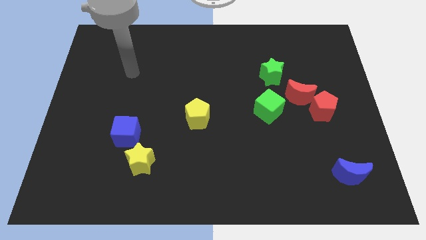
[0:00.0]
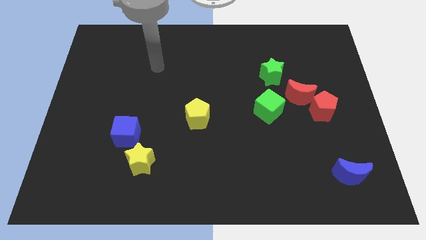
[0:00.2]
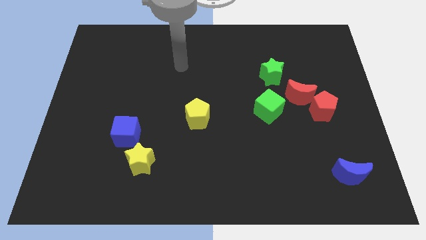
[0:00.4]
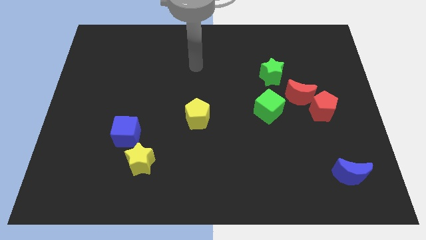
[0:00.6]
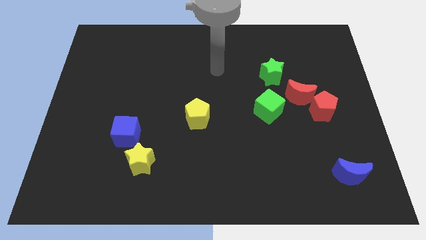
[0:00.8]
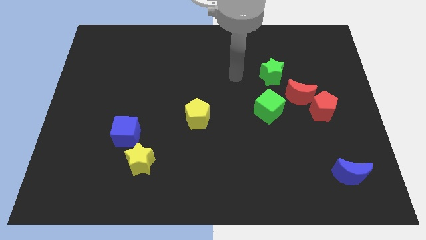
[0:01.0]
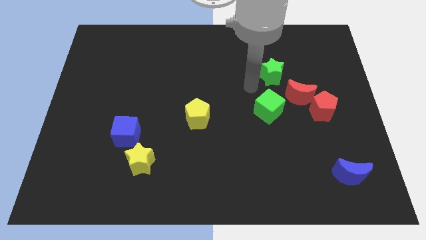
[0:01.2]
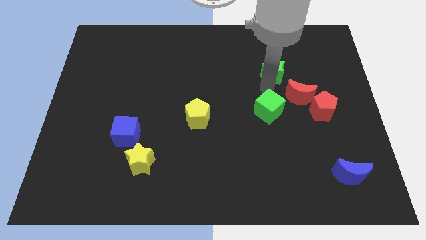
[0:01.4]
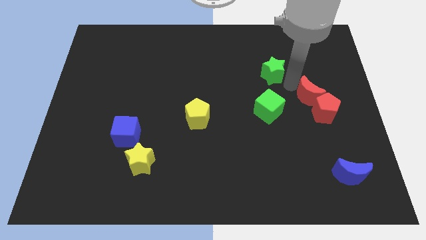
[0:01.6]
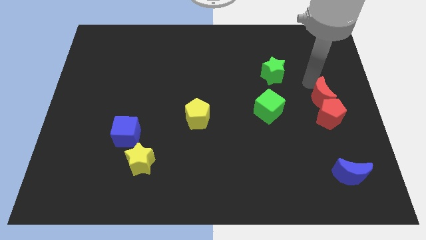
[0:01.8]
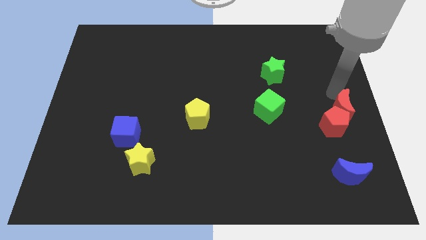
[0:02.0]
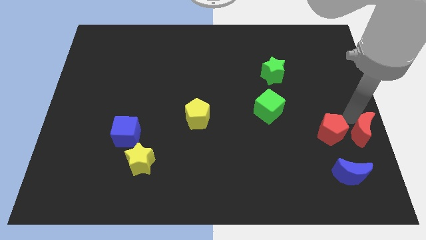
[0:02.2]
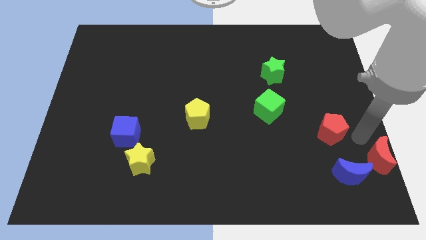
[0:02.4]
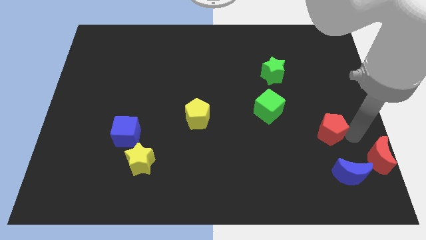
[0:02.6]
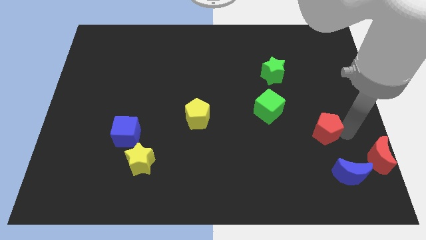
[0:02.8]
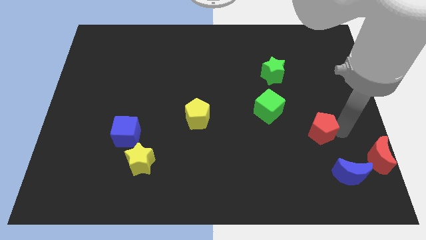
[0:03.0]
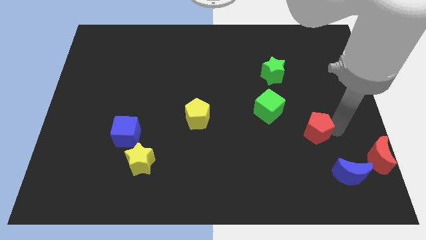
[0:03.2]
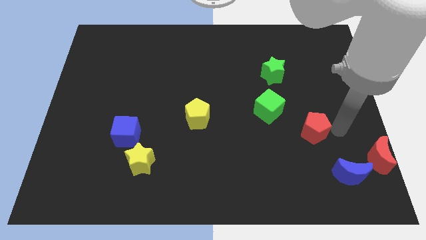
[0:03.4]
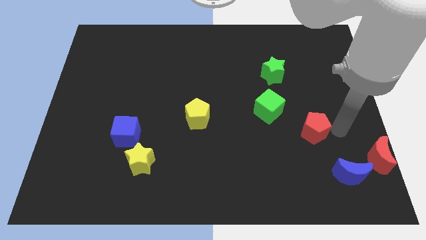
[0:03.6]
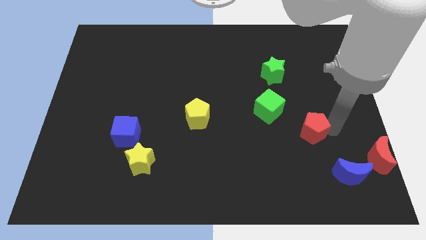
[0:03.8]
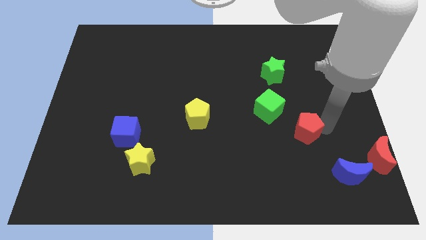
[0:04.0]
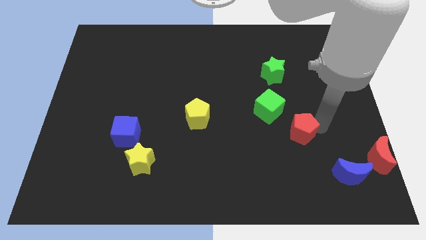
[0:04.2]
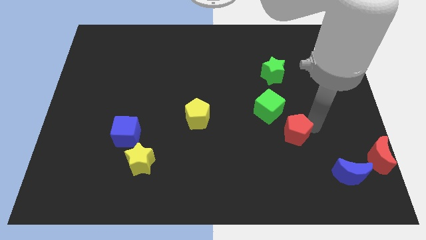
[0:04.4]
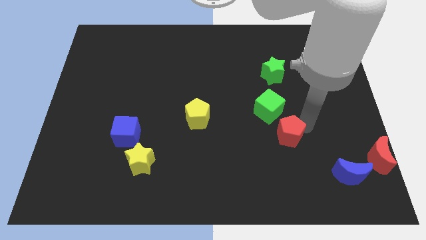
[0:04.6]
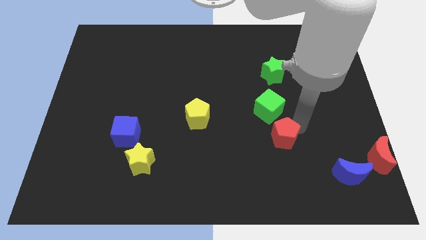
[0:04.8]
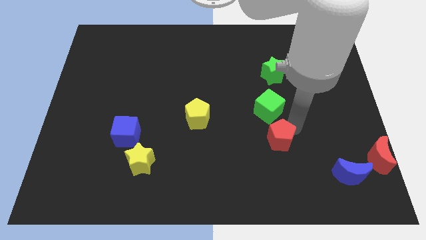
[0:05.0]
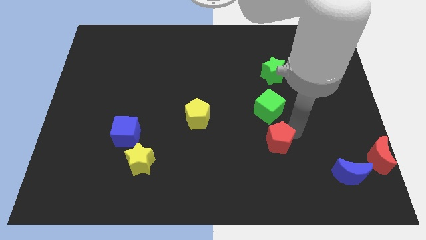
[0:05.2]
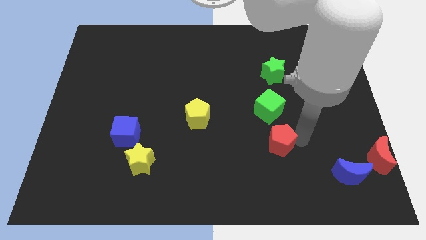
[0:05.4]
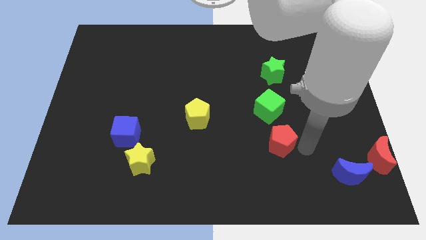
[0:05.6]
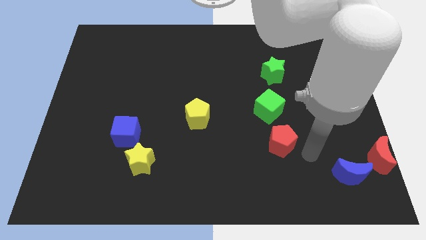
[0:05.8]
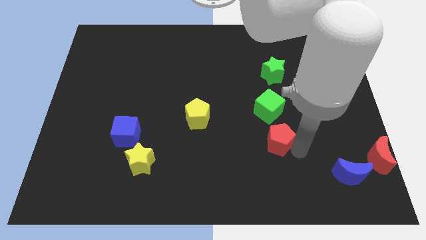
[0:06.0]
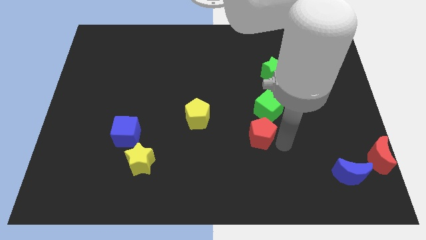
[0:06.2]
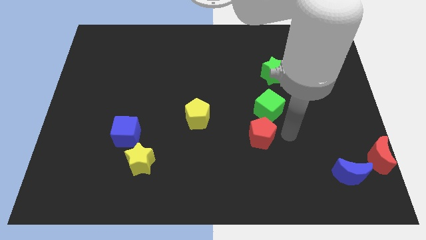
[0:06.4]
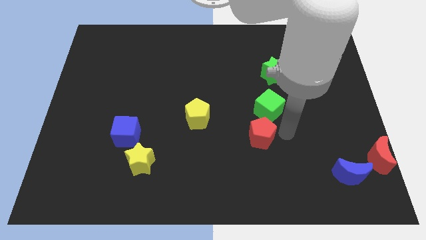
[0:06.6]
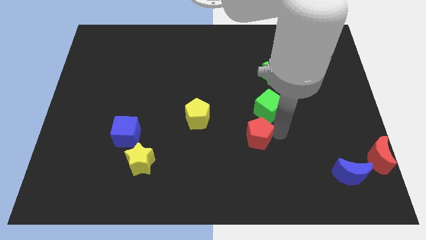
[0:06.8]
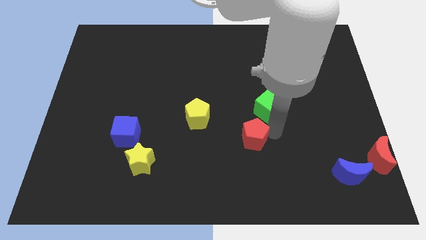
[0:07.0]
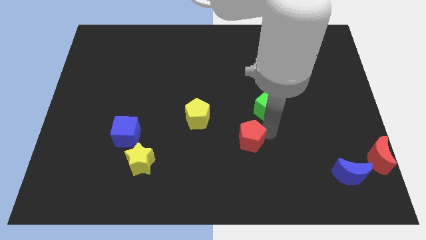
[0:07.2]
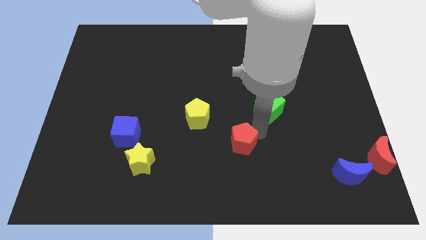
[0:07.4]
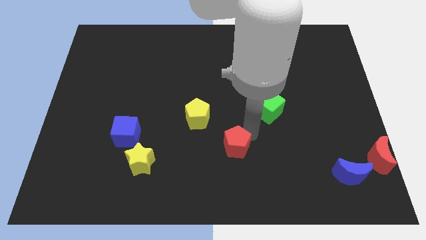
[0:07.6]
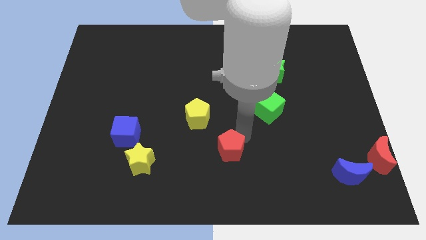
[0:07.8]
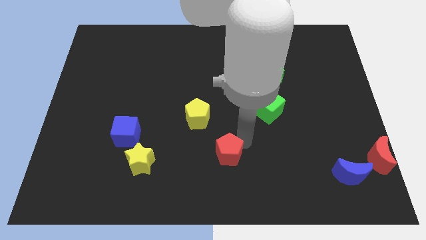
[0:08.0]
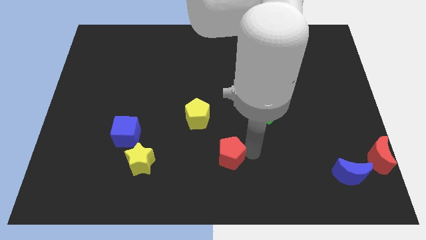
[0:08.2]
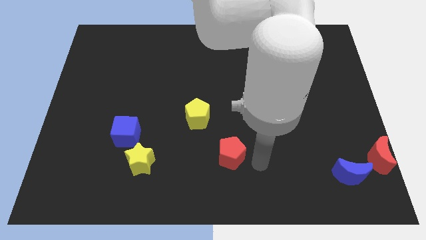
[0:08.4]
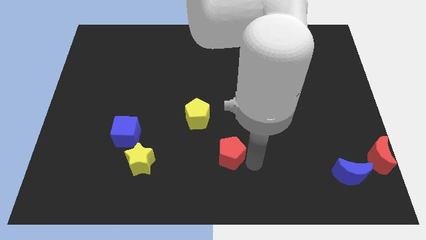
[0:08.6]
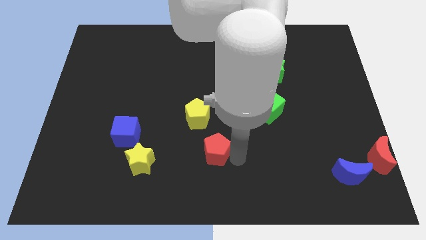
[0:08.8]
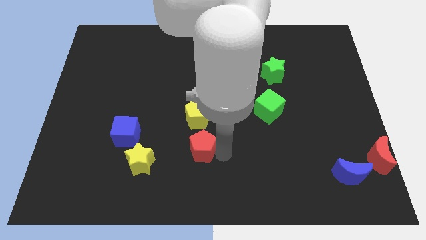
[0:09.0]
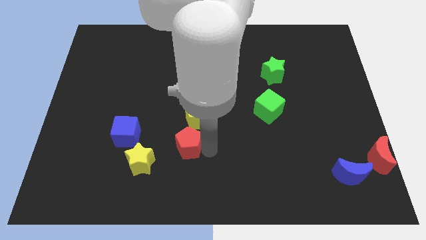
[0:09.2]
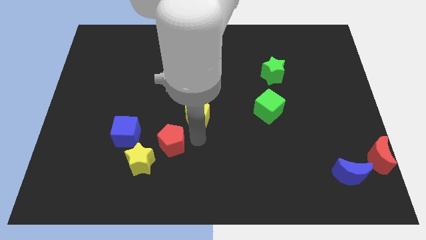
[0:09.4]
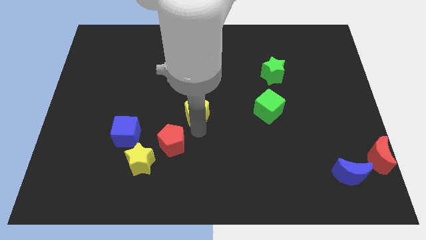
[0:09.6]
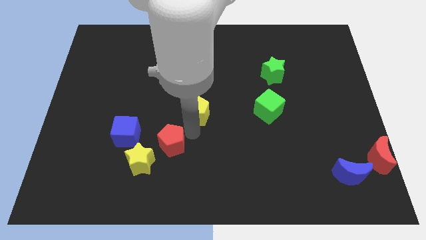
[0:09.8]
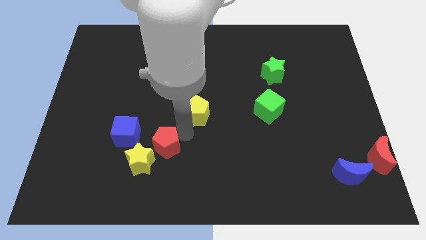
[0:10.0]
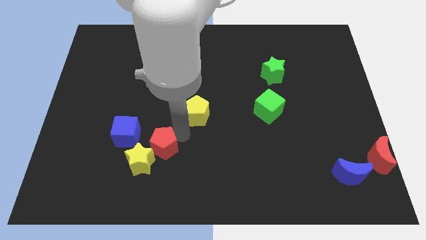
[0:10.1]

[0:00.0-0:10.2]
put the red pentagon close to the yellow star

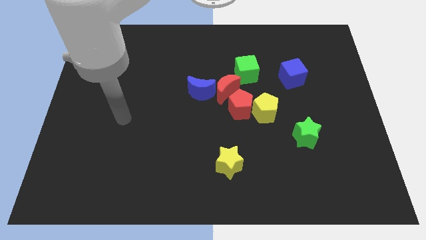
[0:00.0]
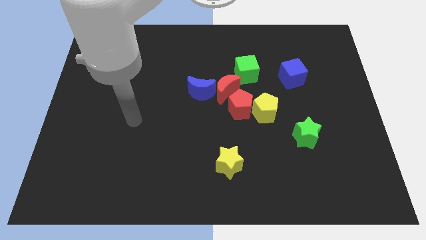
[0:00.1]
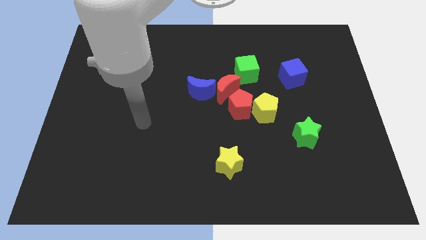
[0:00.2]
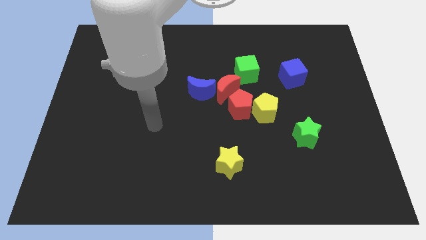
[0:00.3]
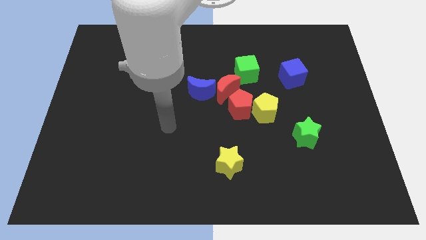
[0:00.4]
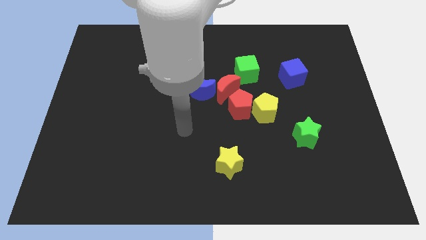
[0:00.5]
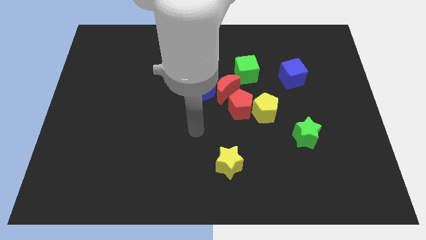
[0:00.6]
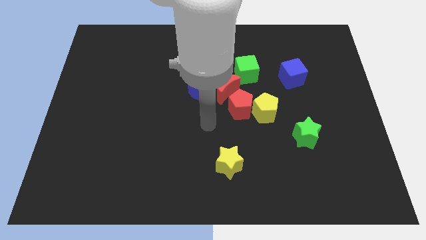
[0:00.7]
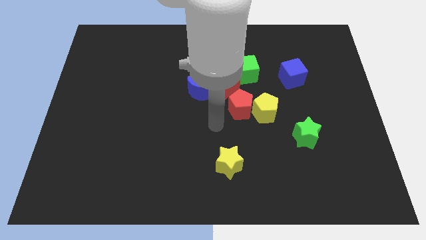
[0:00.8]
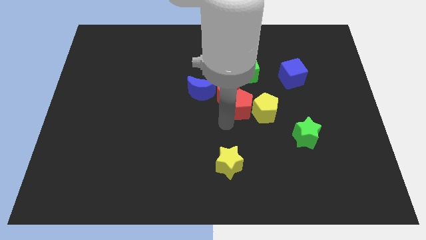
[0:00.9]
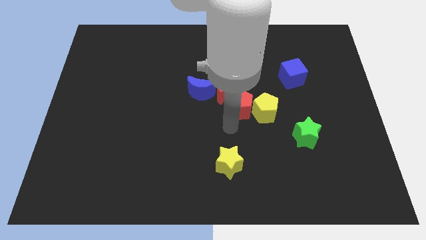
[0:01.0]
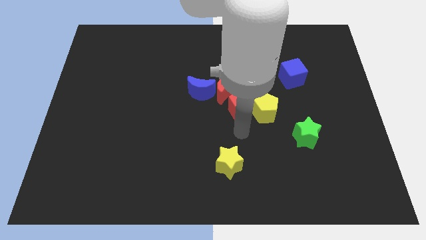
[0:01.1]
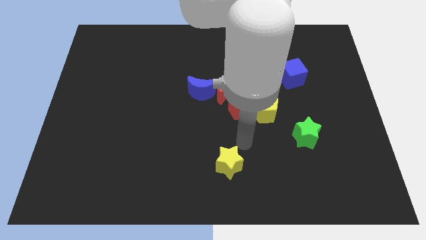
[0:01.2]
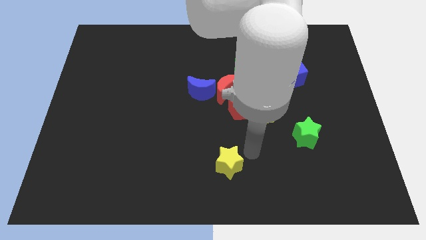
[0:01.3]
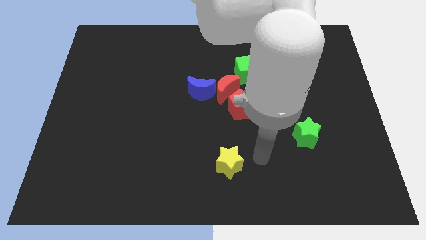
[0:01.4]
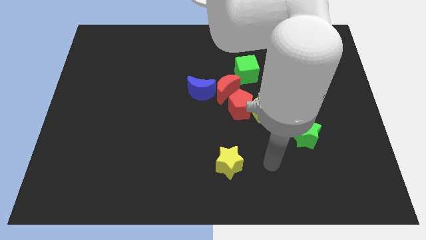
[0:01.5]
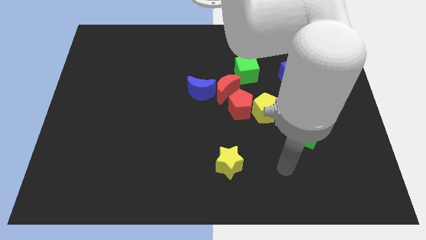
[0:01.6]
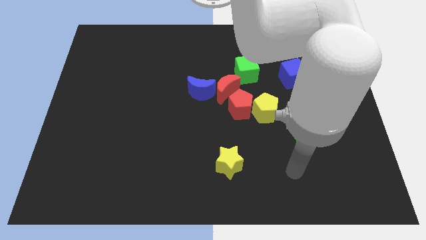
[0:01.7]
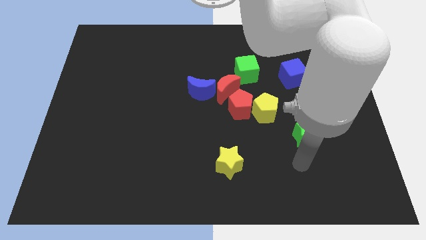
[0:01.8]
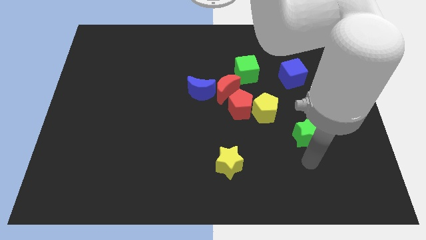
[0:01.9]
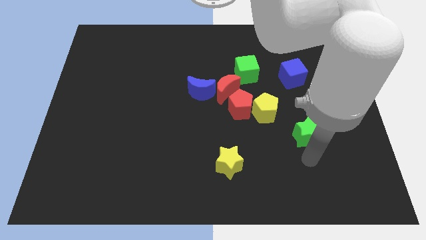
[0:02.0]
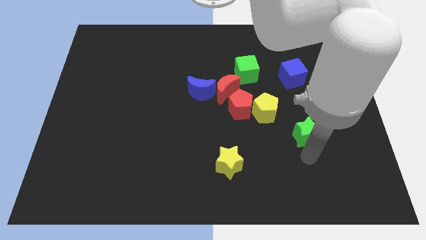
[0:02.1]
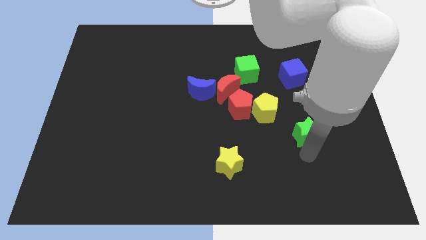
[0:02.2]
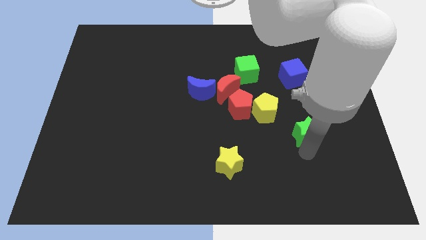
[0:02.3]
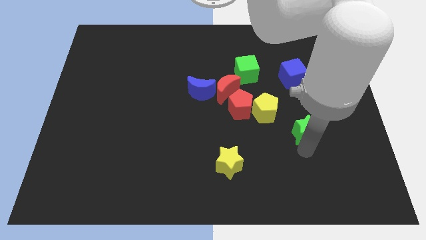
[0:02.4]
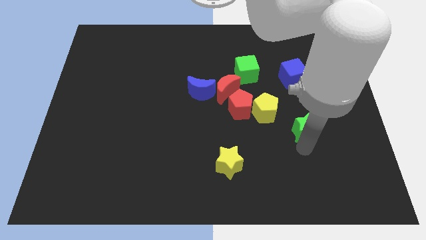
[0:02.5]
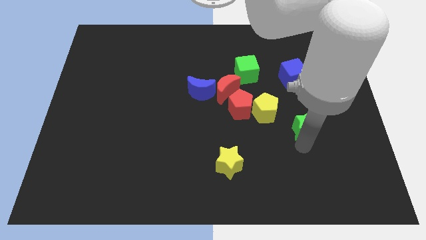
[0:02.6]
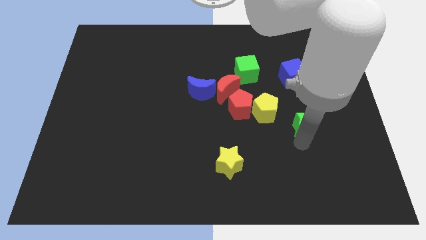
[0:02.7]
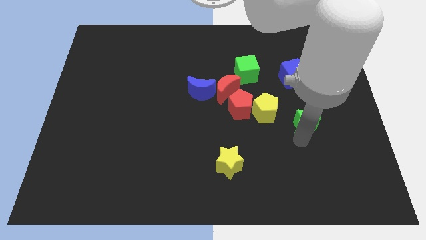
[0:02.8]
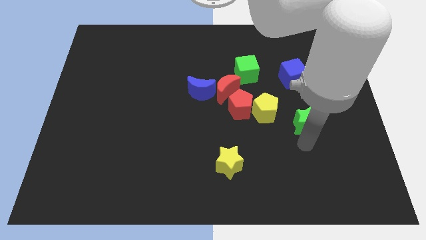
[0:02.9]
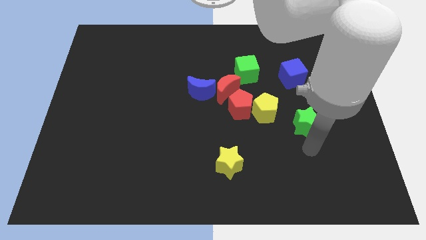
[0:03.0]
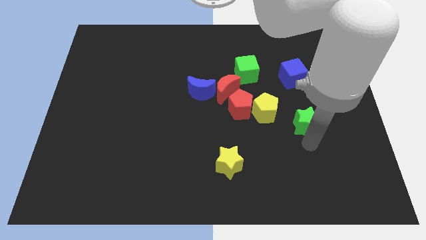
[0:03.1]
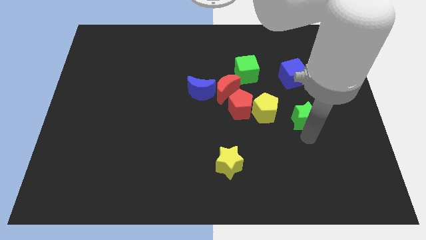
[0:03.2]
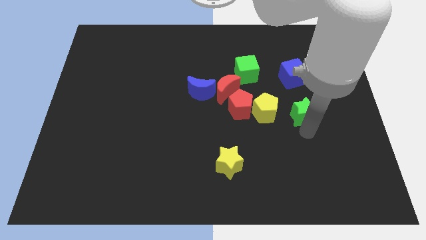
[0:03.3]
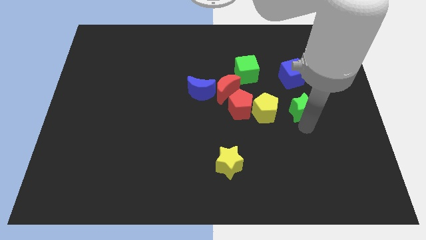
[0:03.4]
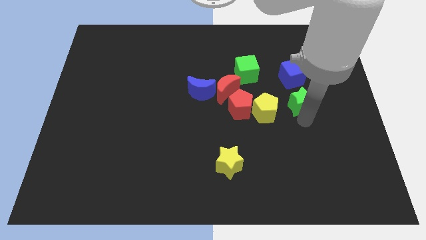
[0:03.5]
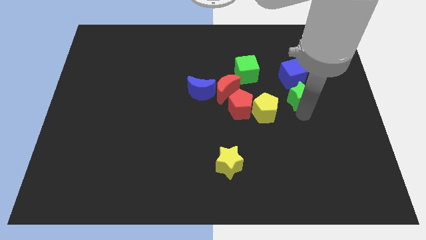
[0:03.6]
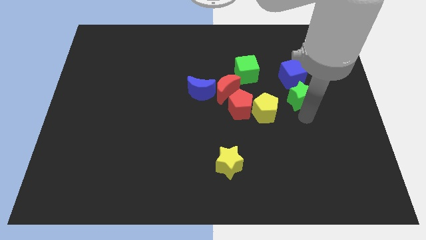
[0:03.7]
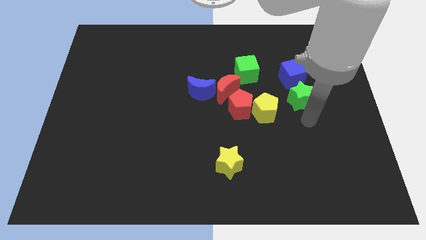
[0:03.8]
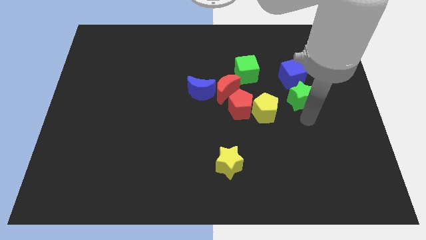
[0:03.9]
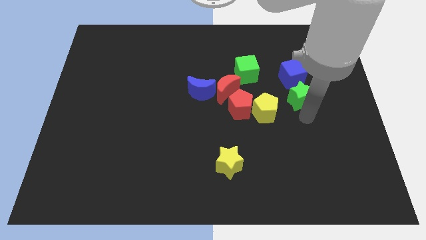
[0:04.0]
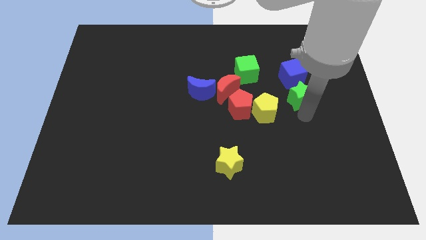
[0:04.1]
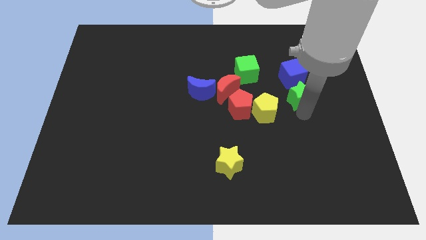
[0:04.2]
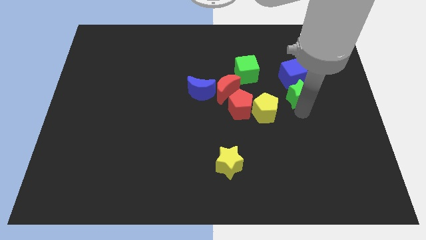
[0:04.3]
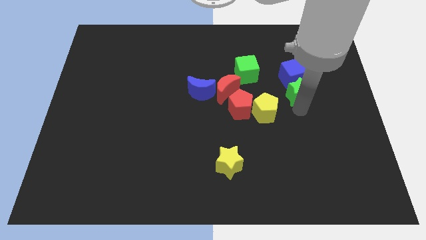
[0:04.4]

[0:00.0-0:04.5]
slide the green star next to the blue cube
